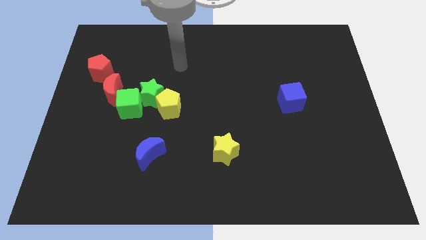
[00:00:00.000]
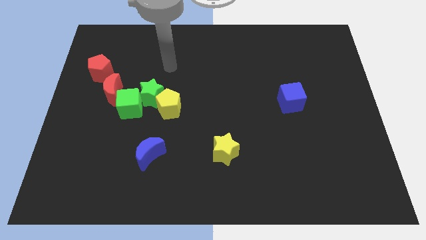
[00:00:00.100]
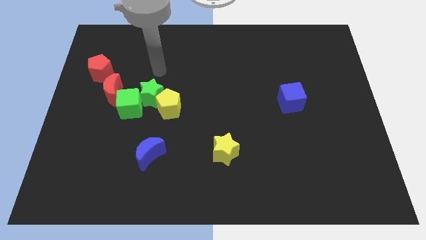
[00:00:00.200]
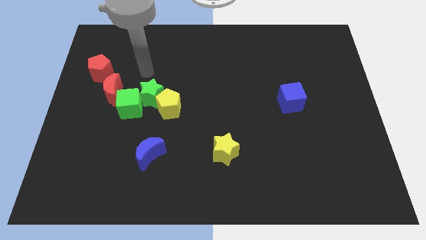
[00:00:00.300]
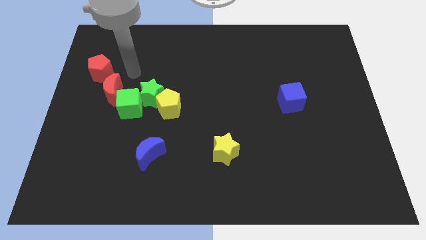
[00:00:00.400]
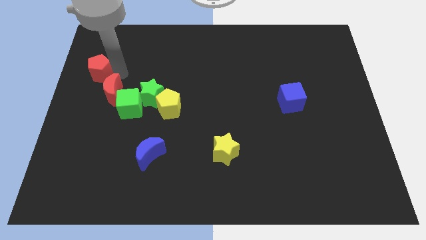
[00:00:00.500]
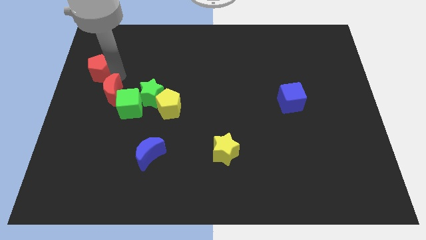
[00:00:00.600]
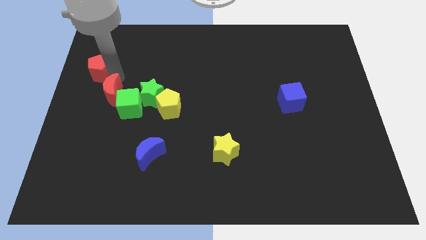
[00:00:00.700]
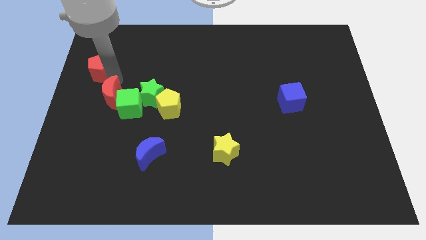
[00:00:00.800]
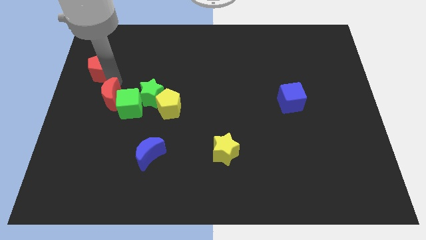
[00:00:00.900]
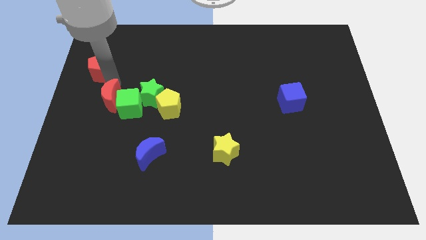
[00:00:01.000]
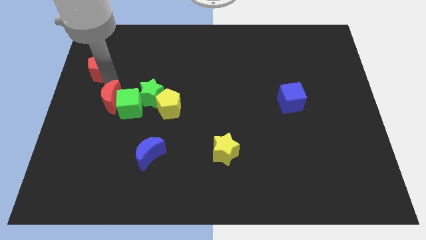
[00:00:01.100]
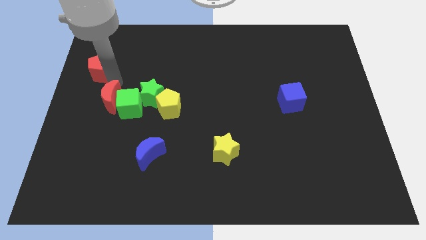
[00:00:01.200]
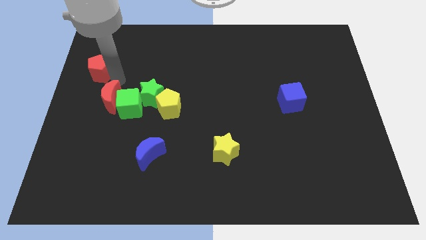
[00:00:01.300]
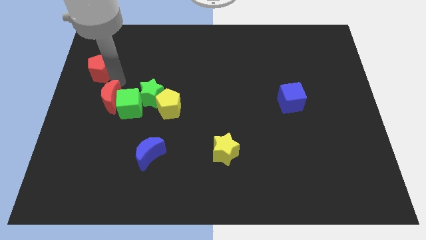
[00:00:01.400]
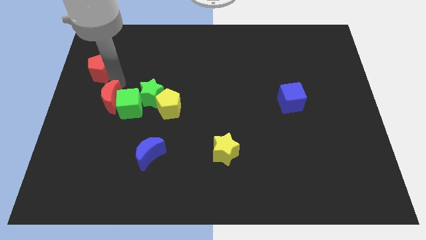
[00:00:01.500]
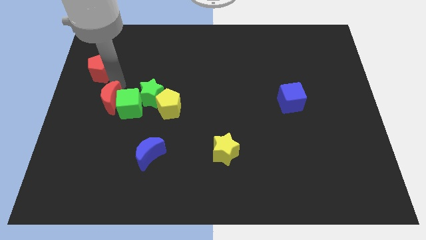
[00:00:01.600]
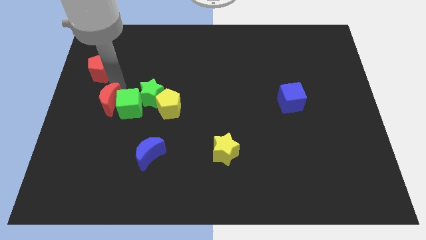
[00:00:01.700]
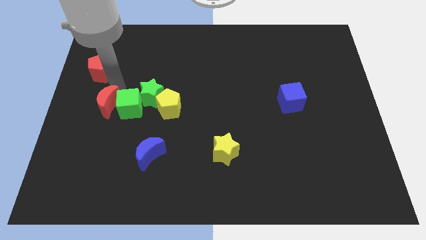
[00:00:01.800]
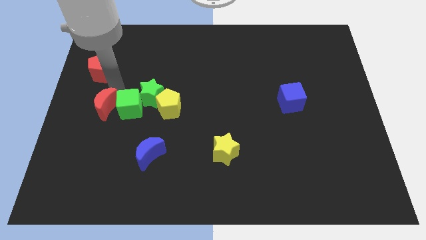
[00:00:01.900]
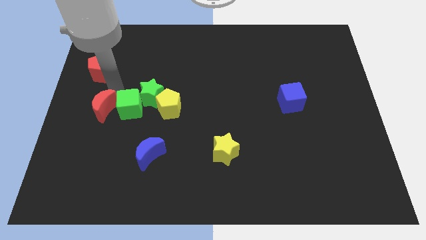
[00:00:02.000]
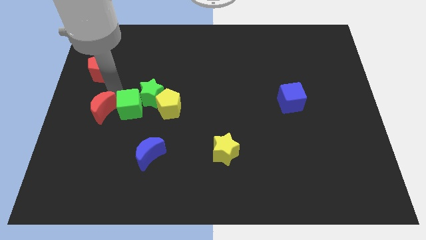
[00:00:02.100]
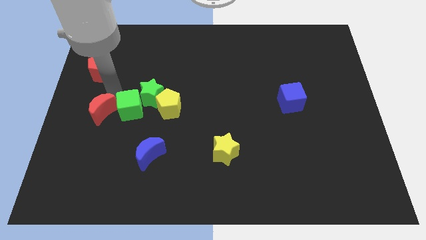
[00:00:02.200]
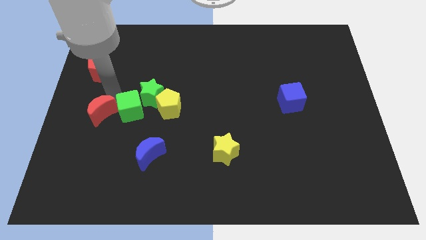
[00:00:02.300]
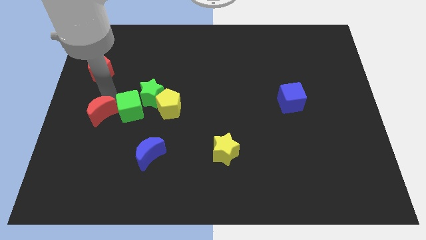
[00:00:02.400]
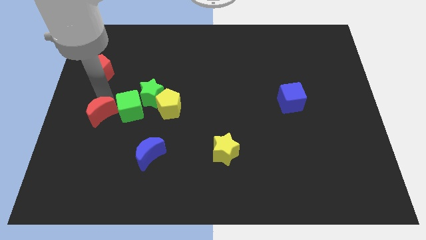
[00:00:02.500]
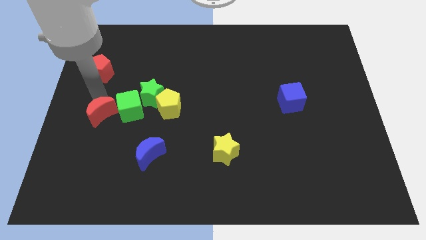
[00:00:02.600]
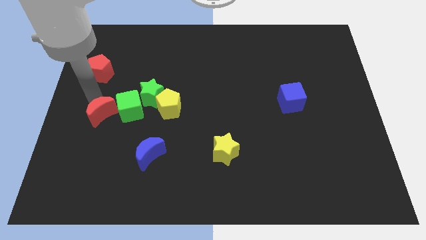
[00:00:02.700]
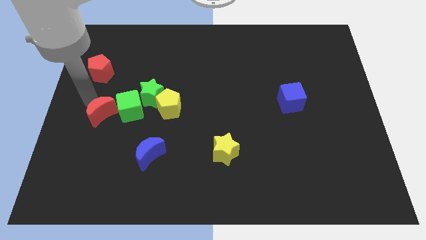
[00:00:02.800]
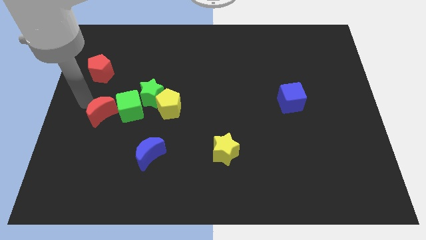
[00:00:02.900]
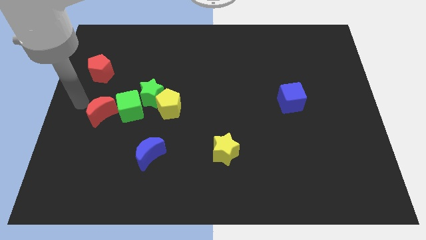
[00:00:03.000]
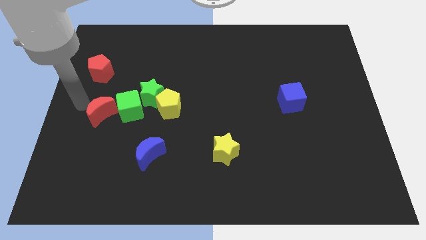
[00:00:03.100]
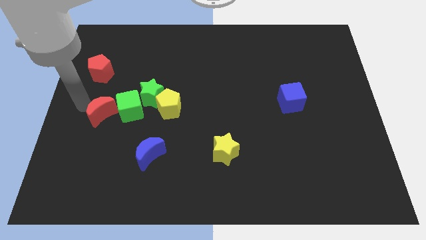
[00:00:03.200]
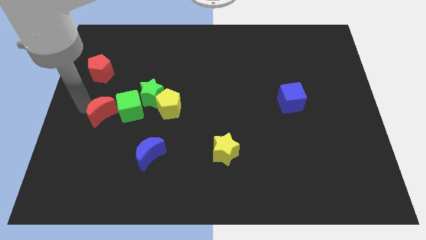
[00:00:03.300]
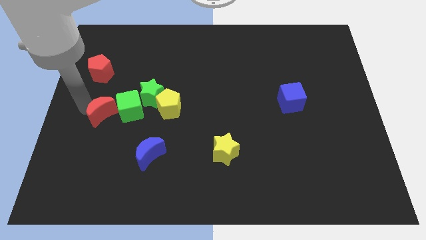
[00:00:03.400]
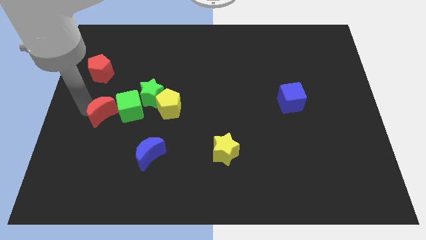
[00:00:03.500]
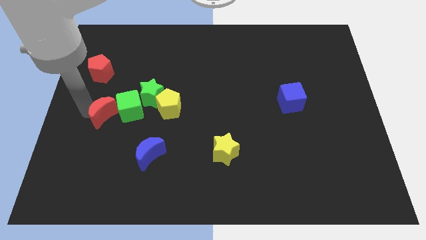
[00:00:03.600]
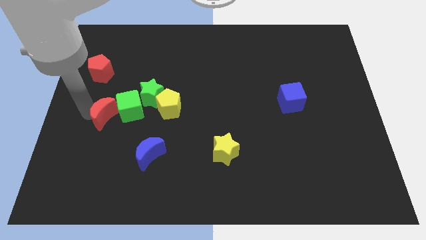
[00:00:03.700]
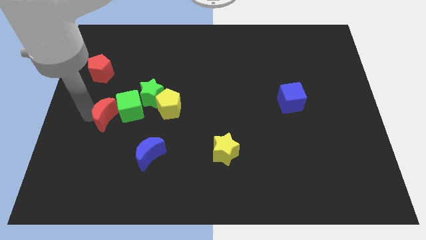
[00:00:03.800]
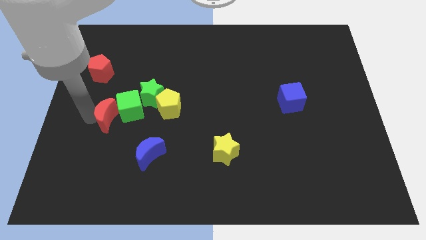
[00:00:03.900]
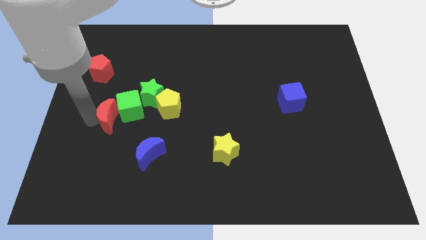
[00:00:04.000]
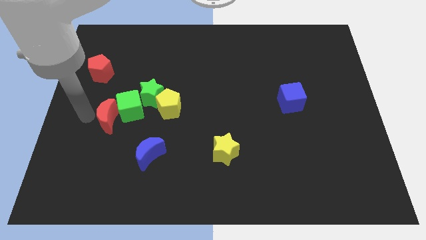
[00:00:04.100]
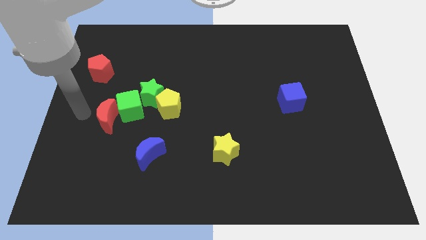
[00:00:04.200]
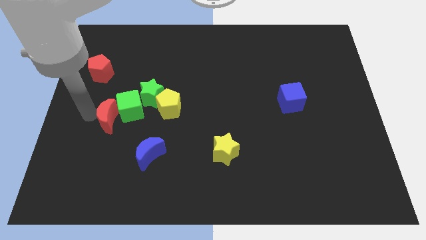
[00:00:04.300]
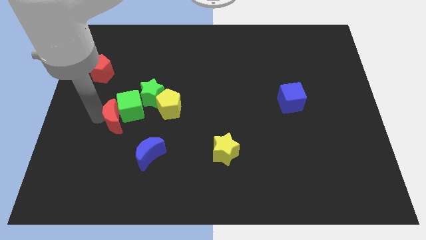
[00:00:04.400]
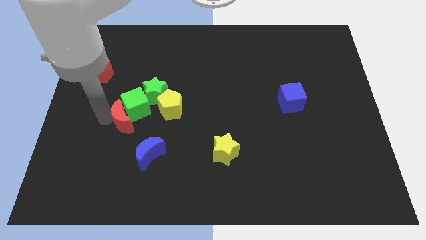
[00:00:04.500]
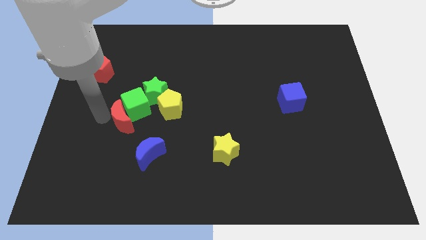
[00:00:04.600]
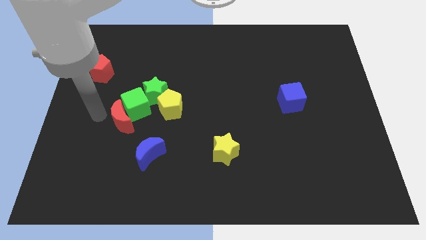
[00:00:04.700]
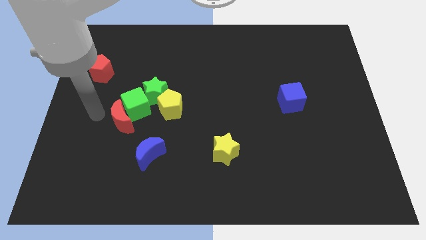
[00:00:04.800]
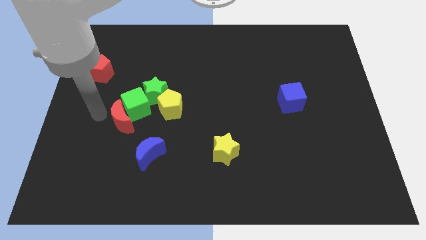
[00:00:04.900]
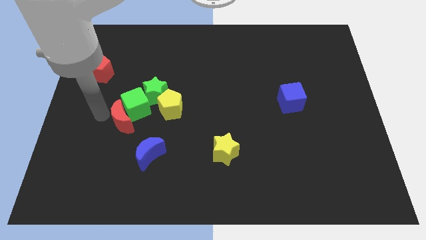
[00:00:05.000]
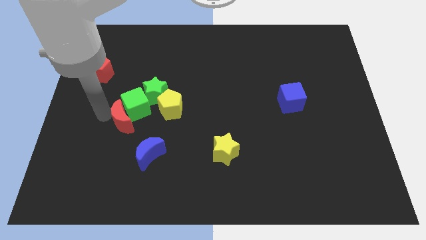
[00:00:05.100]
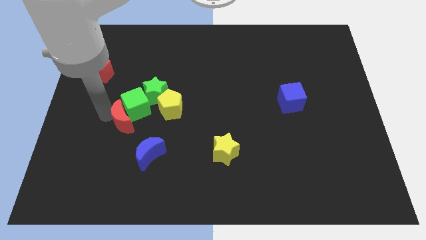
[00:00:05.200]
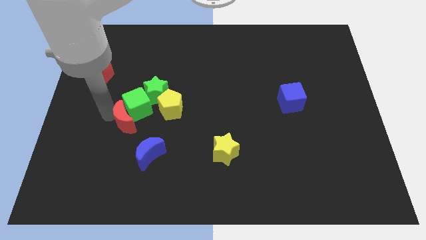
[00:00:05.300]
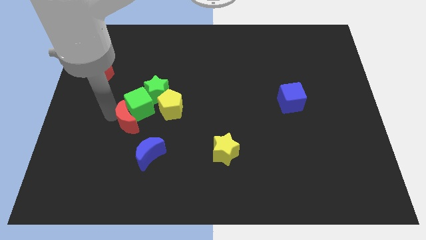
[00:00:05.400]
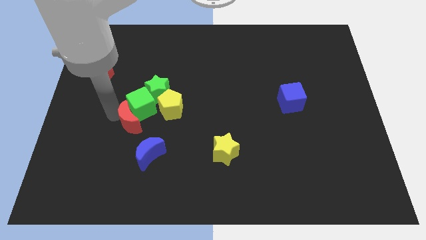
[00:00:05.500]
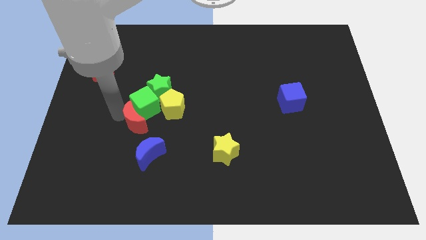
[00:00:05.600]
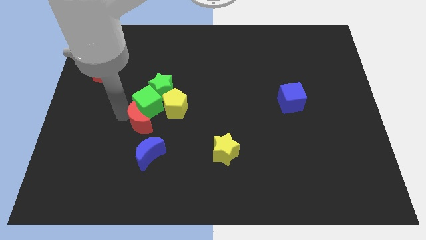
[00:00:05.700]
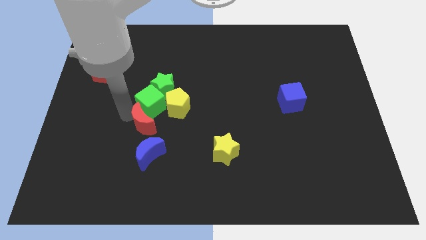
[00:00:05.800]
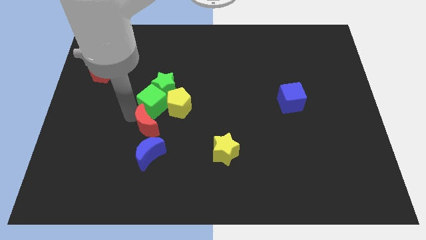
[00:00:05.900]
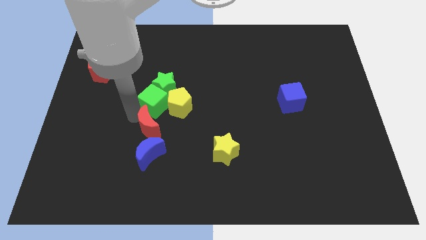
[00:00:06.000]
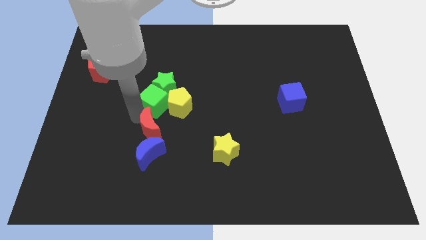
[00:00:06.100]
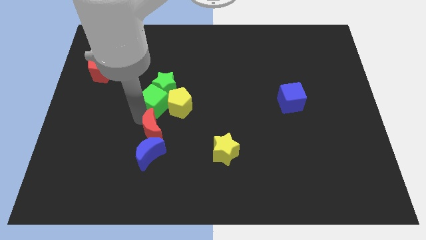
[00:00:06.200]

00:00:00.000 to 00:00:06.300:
move the red moon diagonally up and to the right of the blue moon
